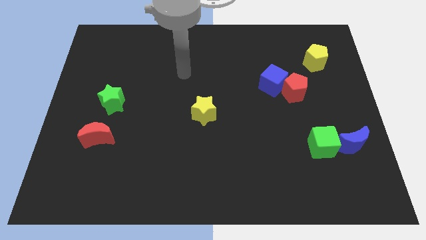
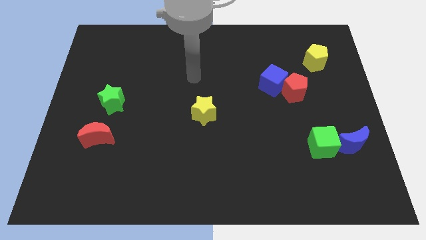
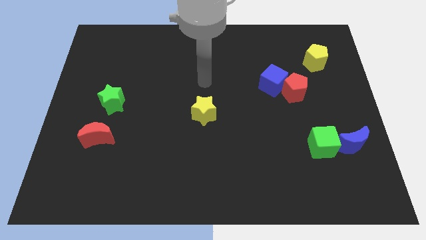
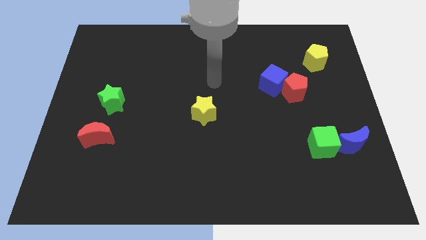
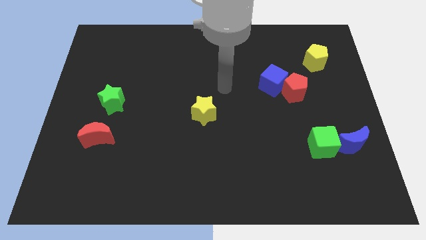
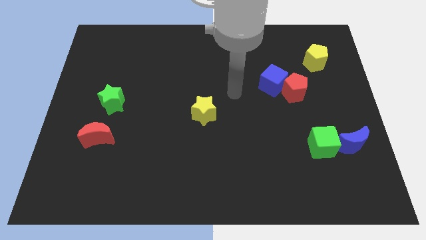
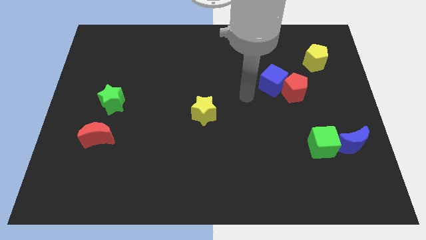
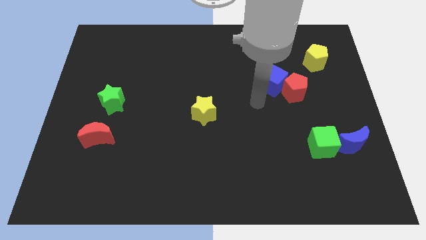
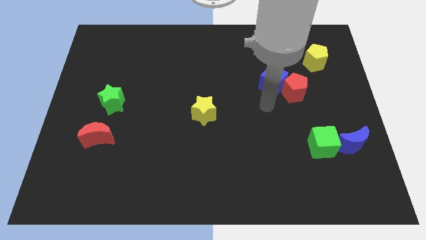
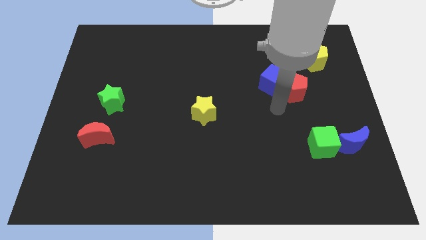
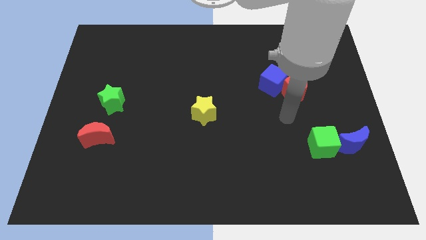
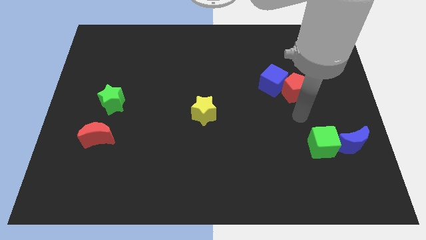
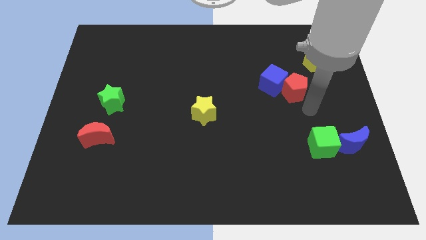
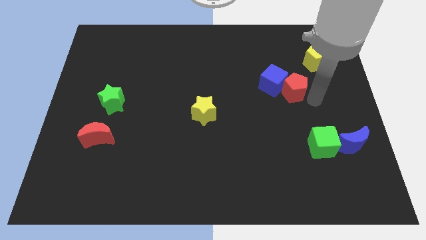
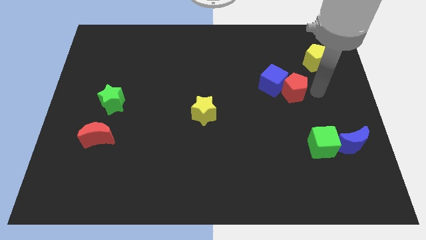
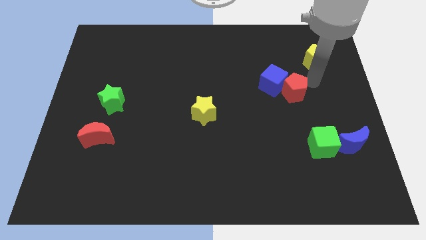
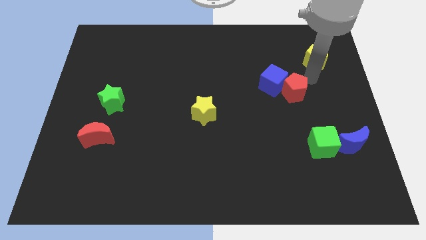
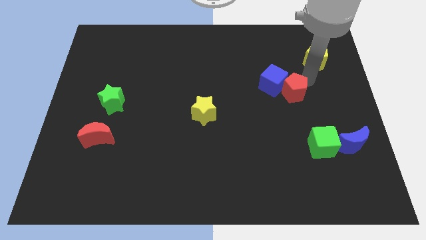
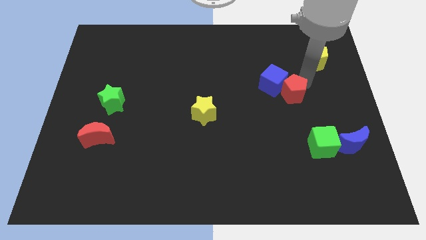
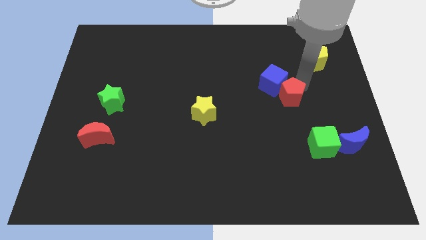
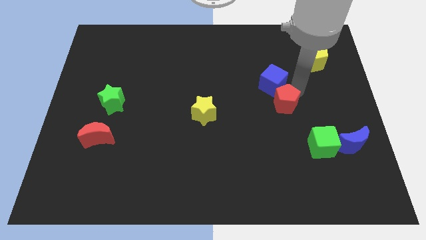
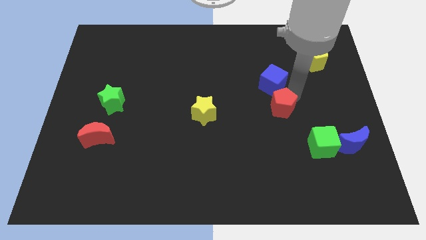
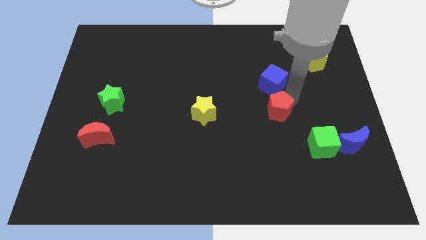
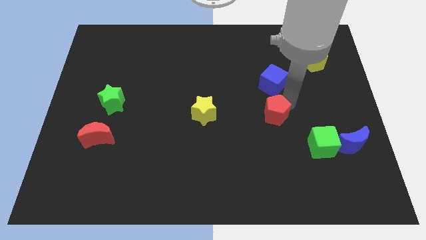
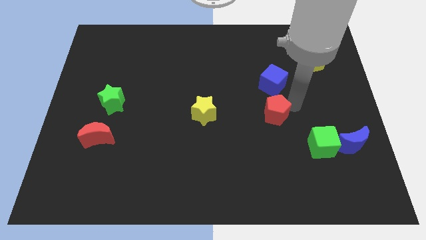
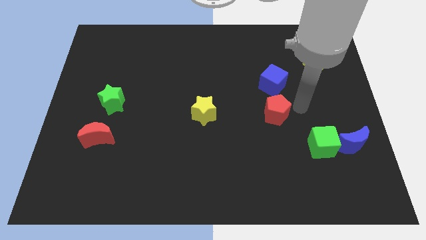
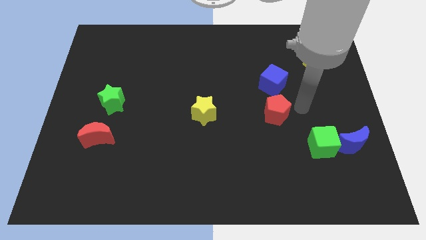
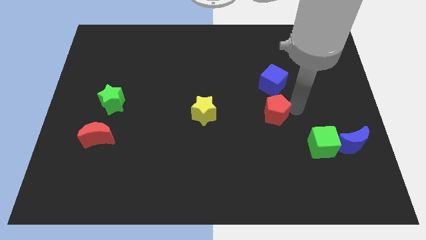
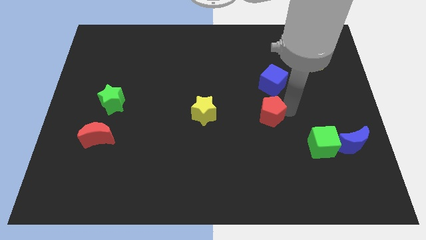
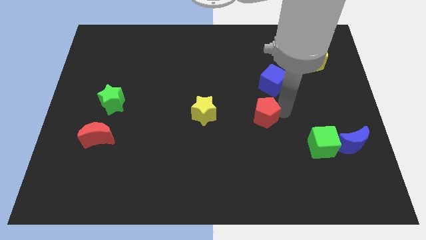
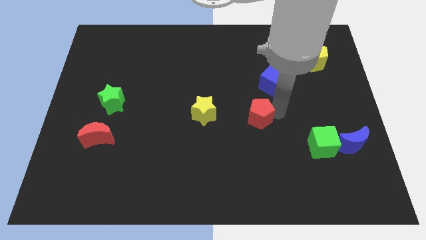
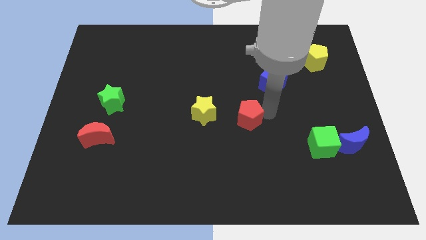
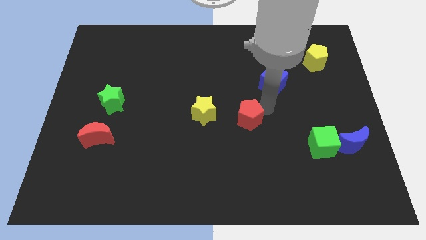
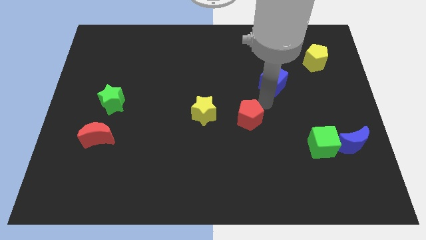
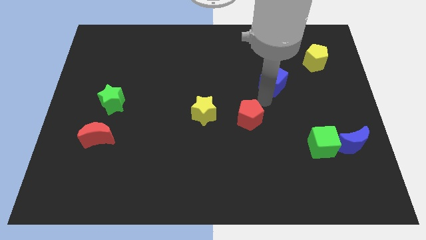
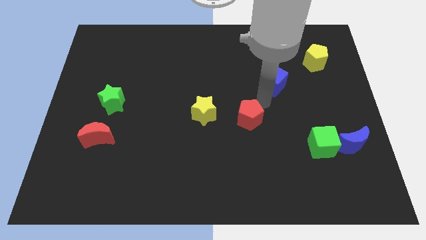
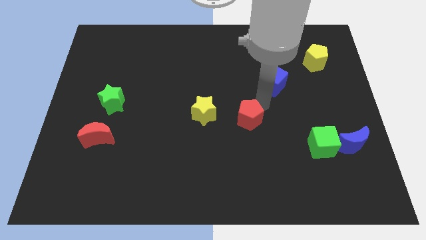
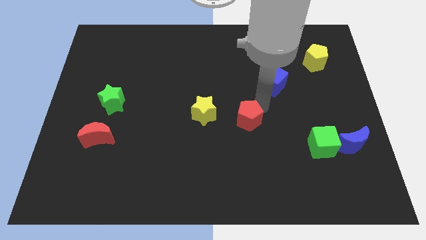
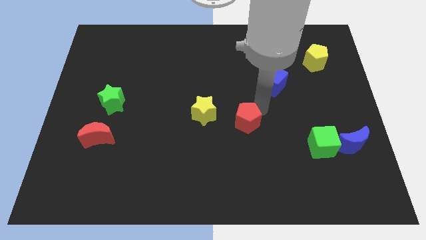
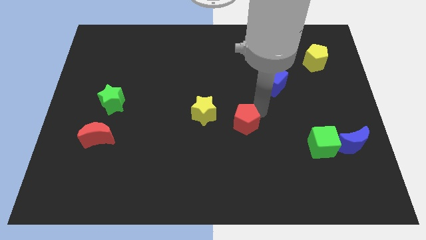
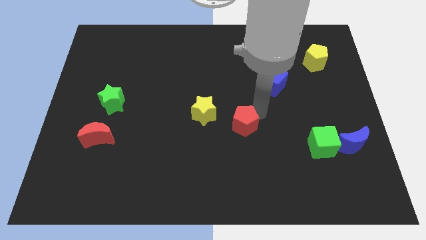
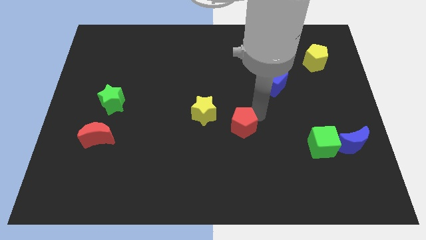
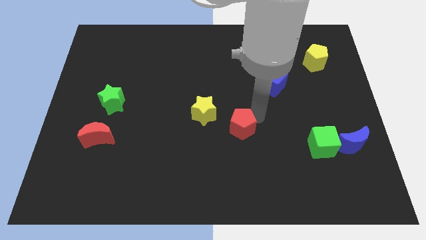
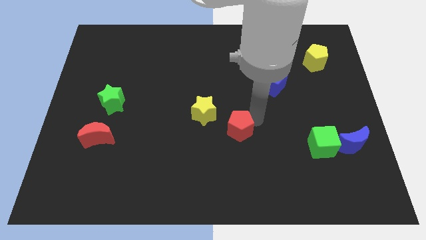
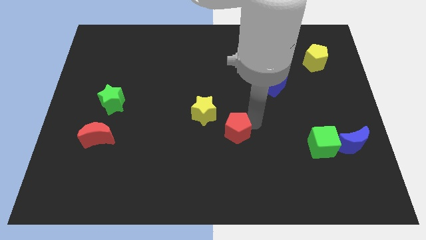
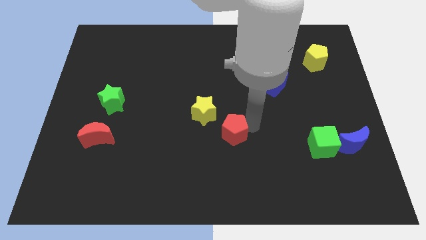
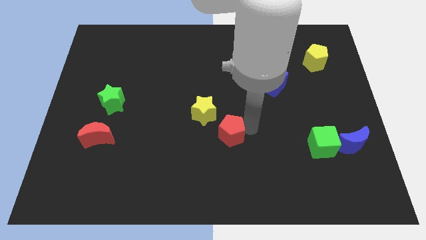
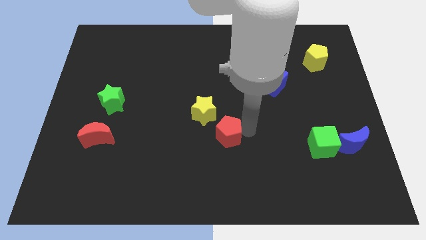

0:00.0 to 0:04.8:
slide the red pentagon diagonally downwards and left

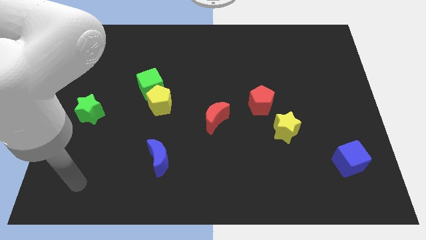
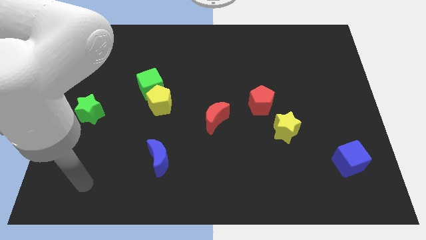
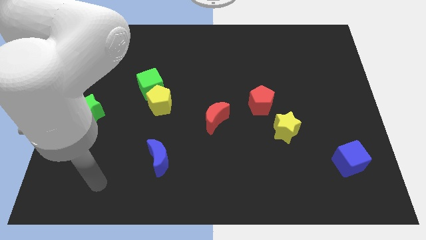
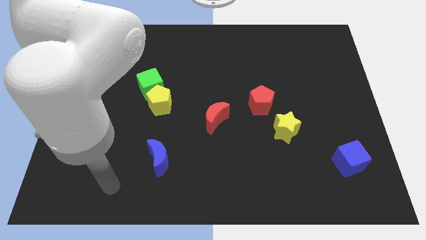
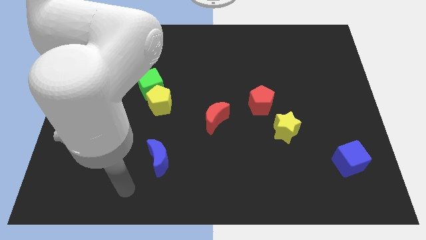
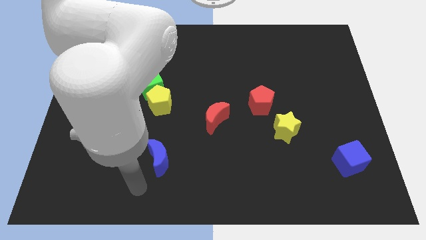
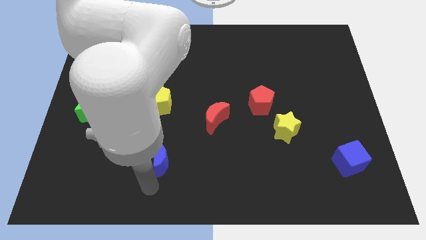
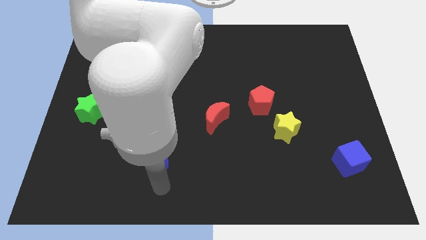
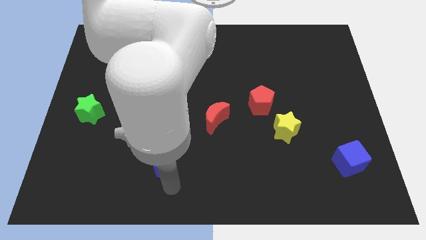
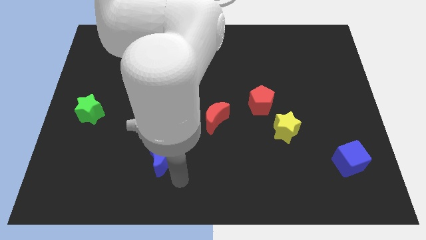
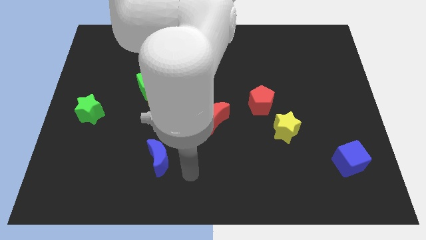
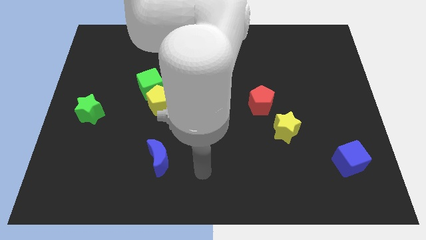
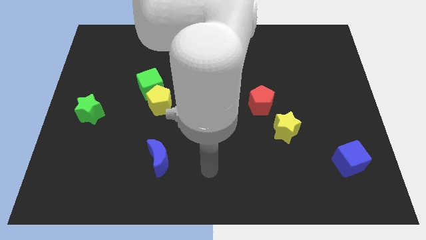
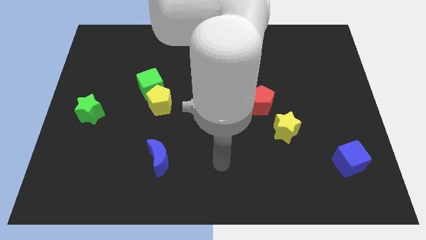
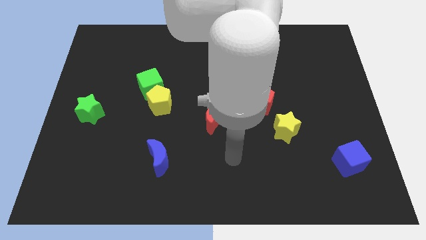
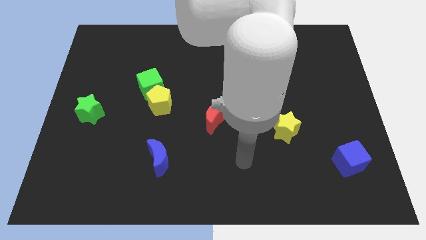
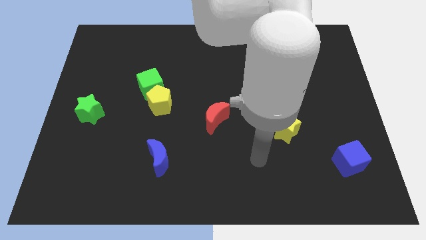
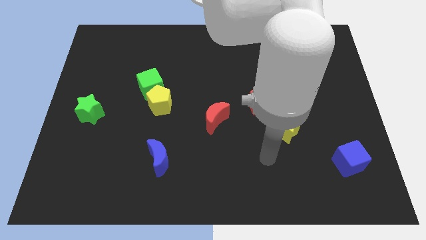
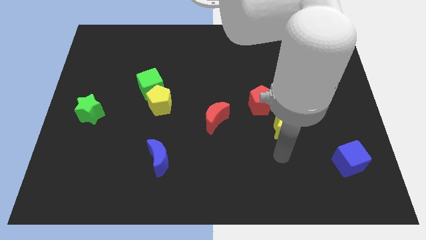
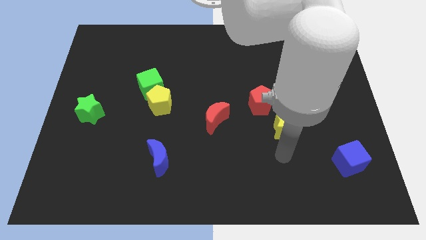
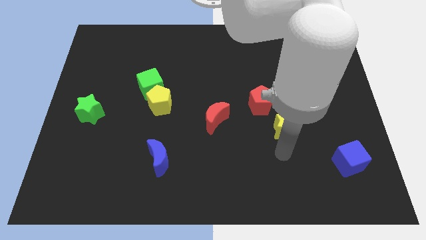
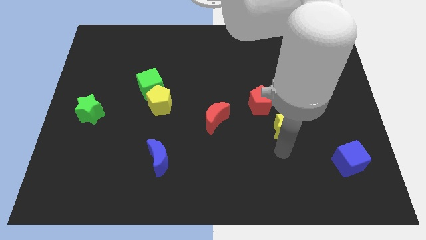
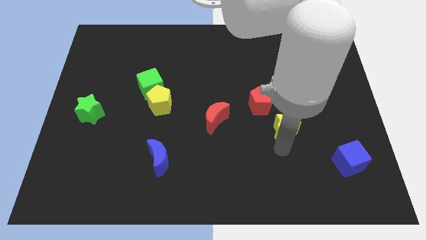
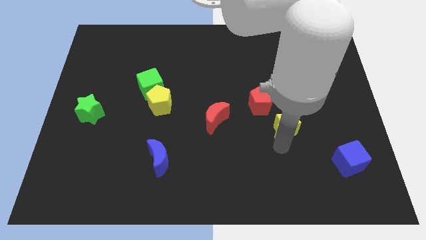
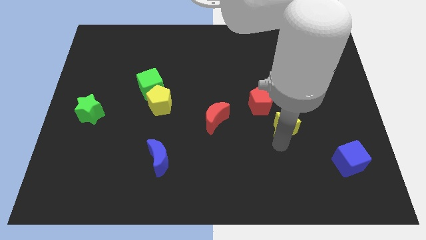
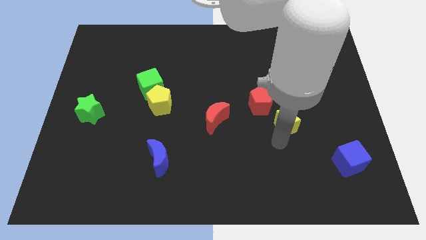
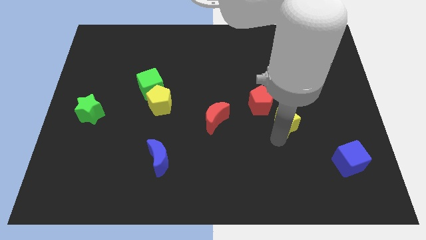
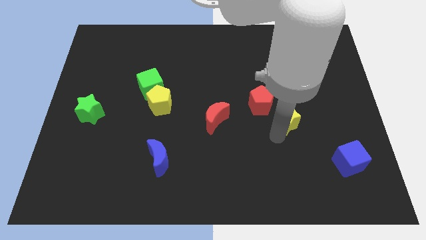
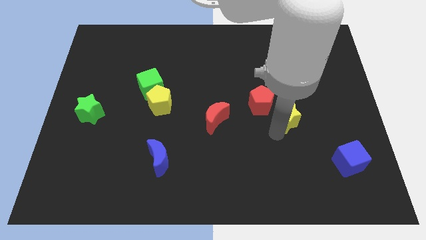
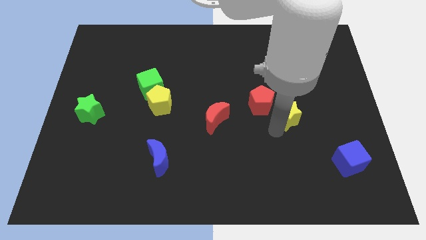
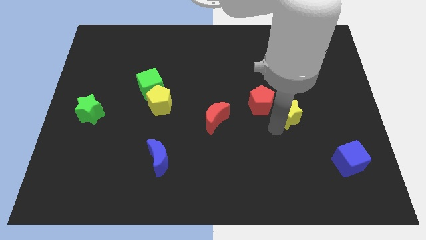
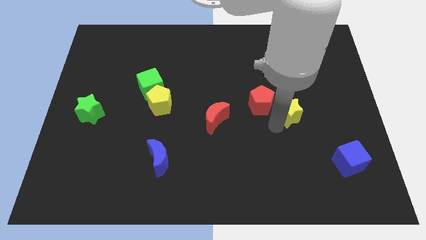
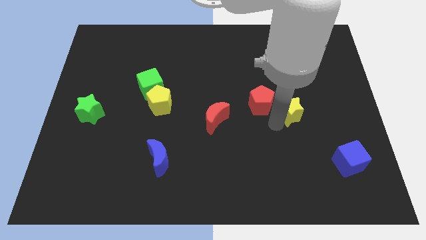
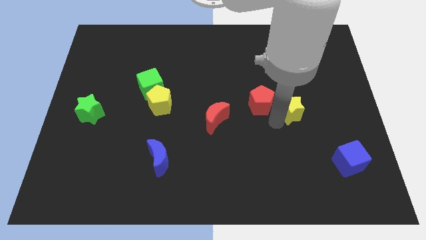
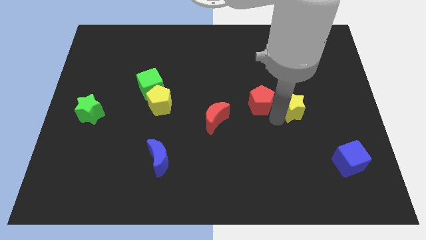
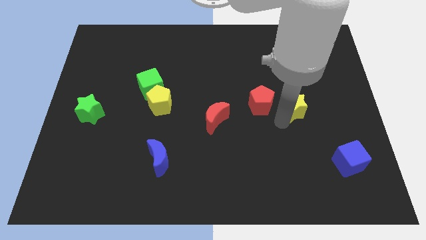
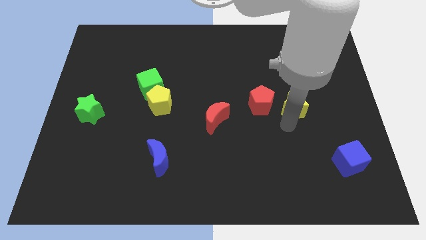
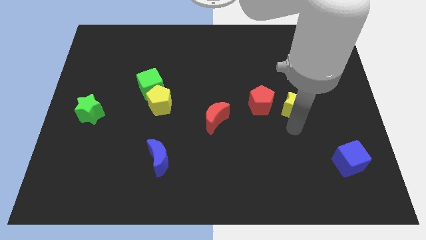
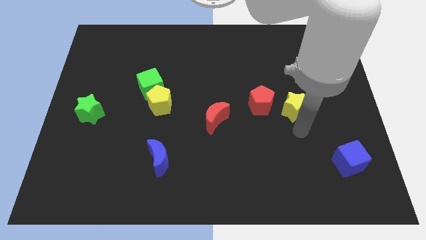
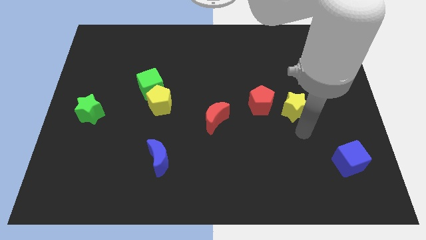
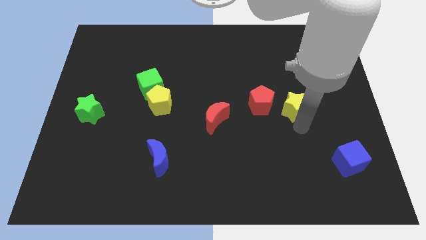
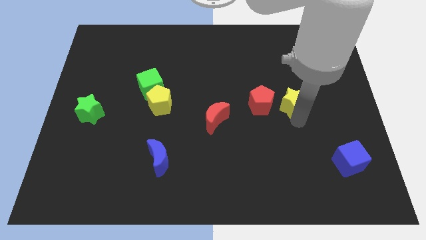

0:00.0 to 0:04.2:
slightly slide the yellow star up
